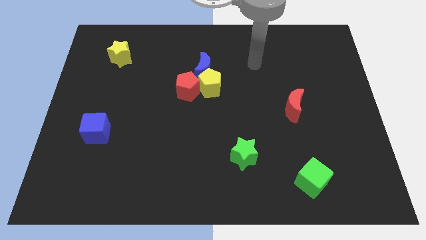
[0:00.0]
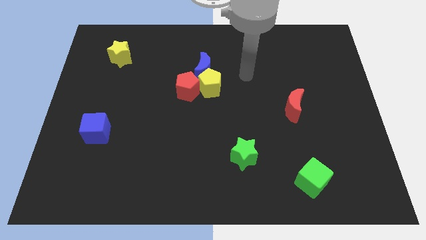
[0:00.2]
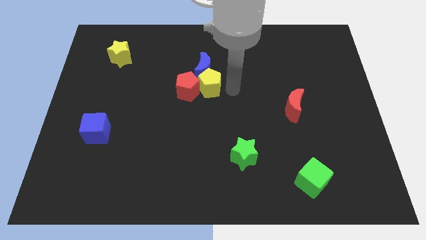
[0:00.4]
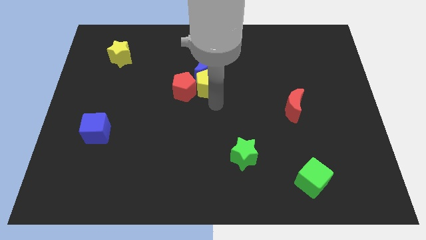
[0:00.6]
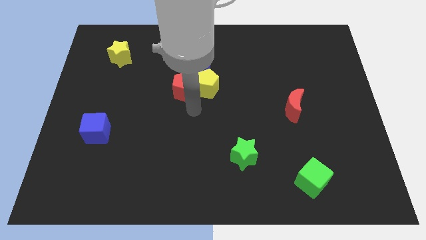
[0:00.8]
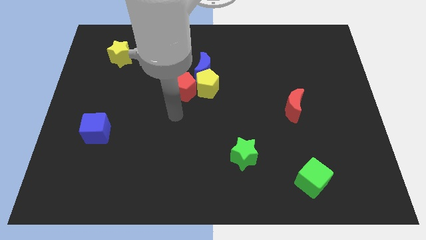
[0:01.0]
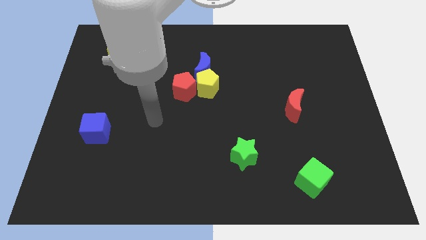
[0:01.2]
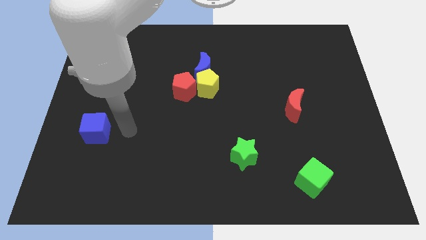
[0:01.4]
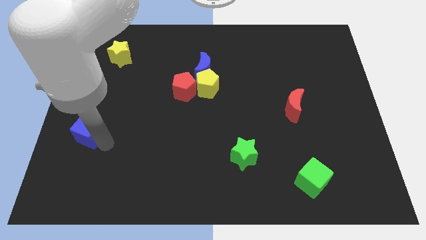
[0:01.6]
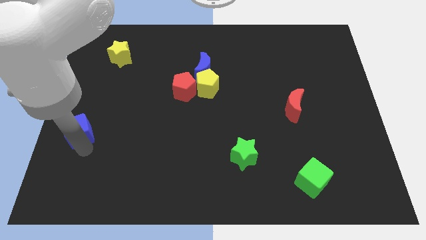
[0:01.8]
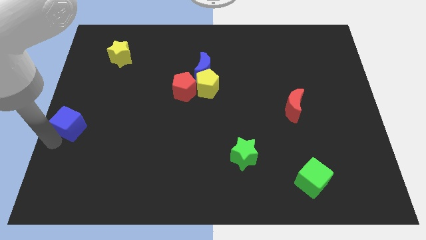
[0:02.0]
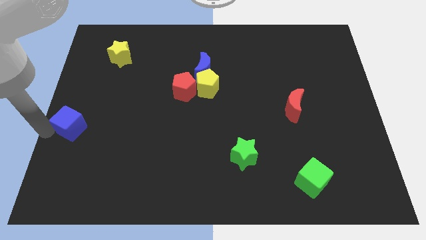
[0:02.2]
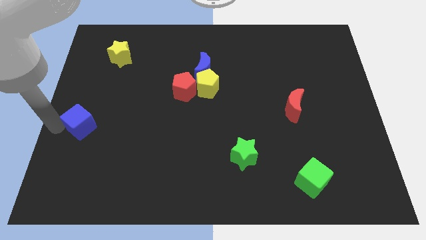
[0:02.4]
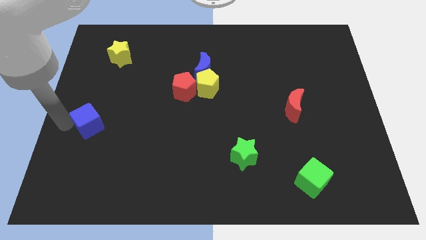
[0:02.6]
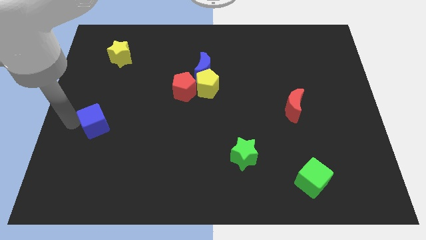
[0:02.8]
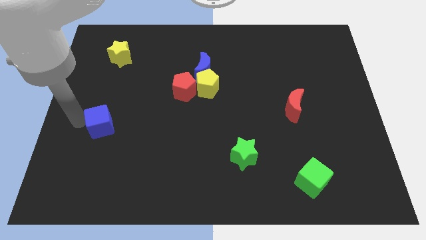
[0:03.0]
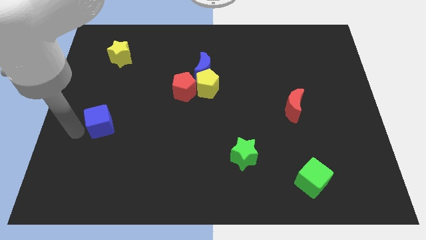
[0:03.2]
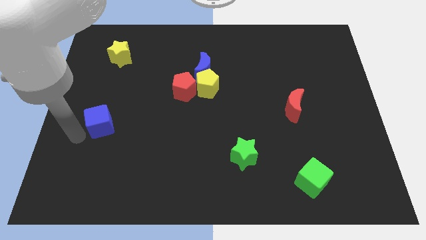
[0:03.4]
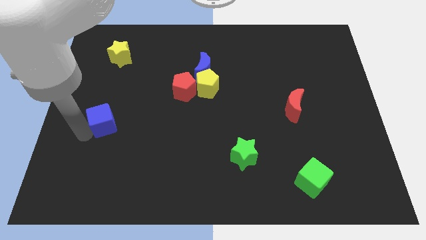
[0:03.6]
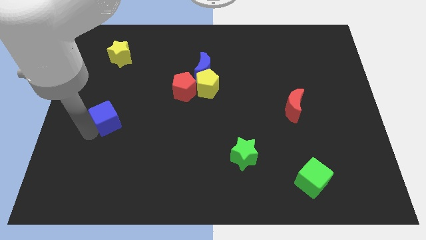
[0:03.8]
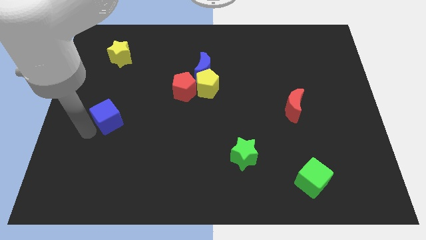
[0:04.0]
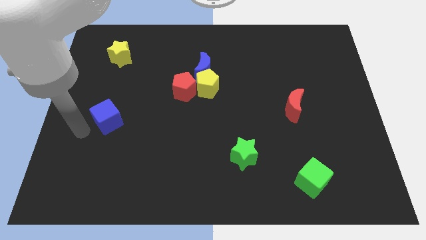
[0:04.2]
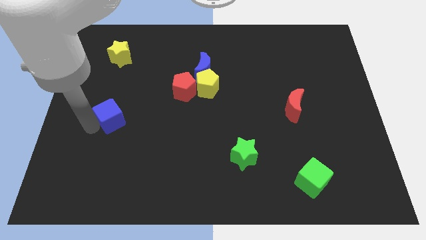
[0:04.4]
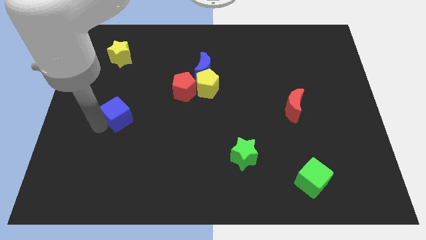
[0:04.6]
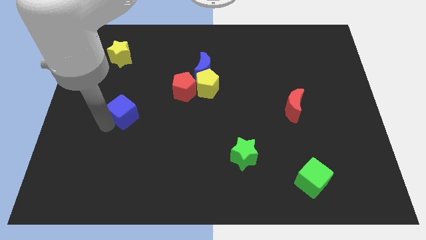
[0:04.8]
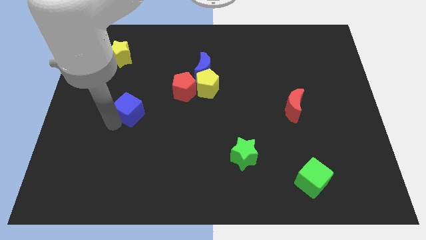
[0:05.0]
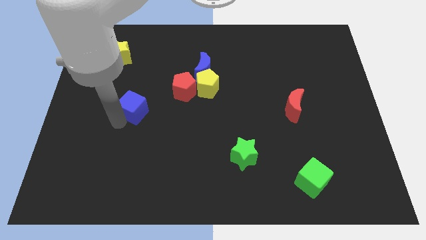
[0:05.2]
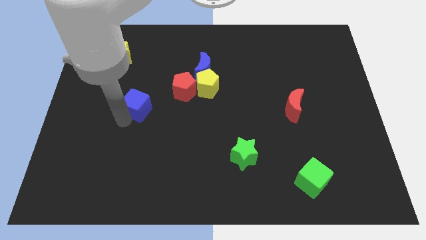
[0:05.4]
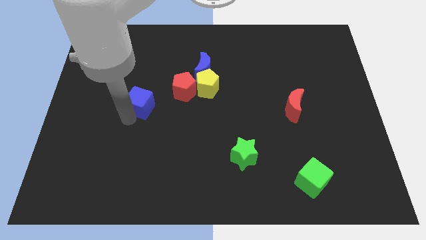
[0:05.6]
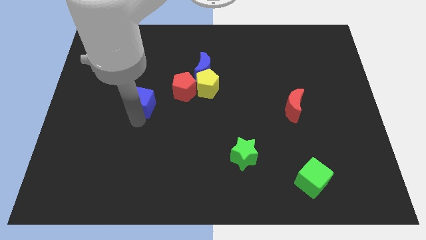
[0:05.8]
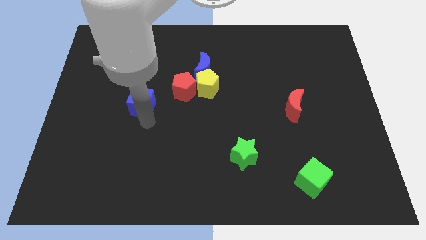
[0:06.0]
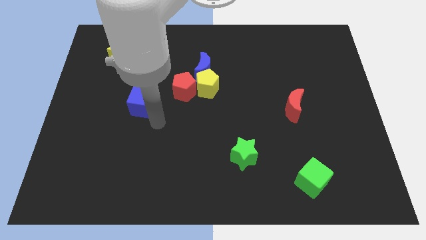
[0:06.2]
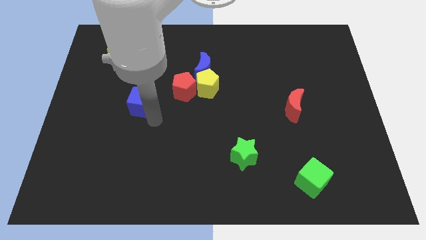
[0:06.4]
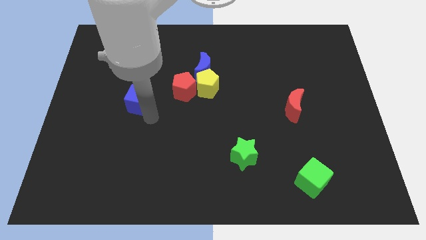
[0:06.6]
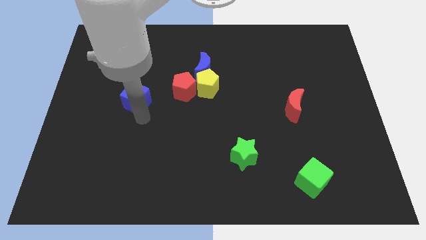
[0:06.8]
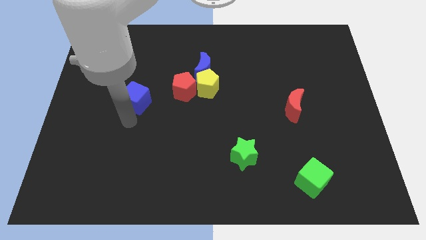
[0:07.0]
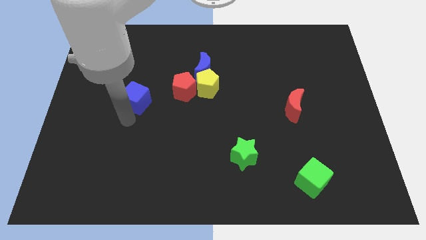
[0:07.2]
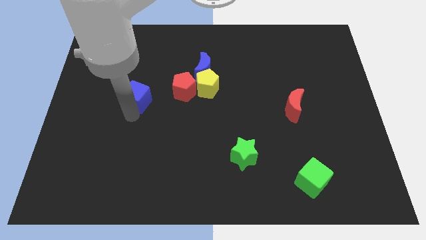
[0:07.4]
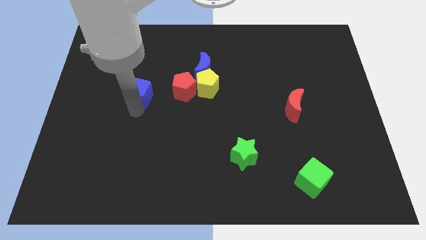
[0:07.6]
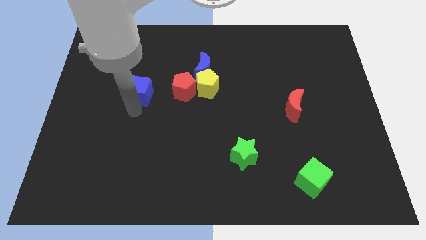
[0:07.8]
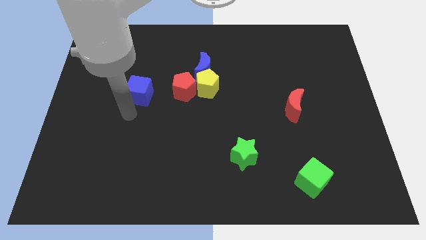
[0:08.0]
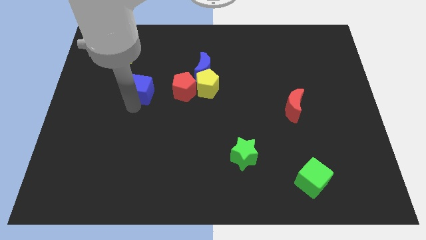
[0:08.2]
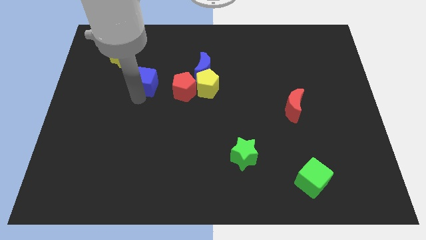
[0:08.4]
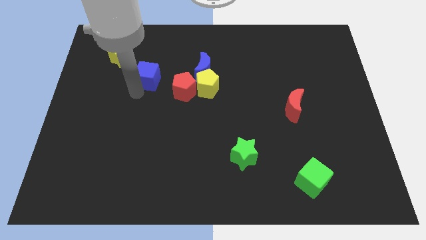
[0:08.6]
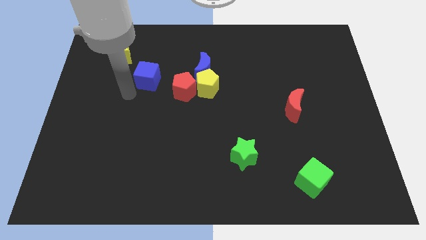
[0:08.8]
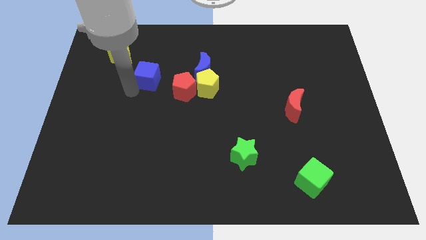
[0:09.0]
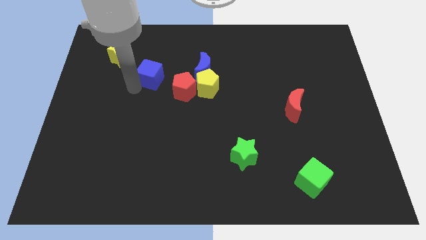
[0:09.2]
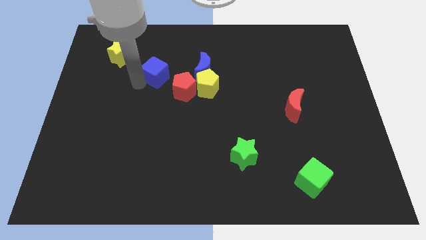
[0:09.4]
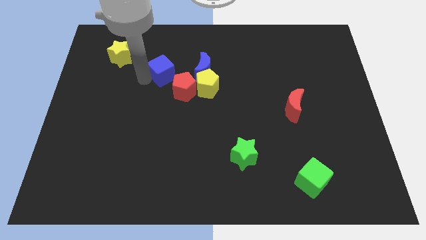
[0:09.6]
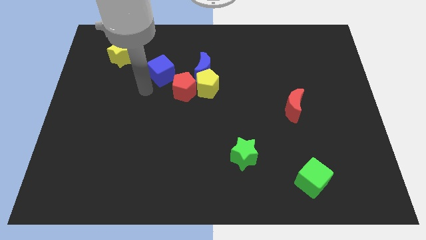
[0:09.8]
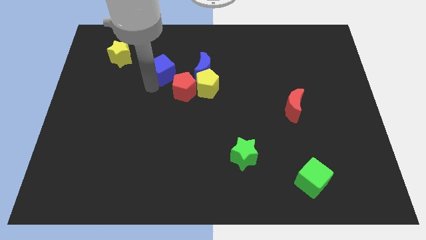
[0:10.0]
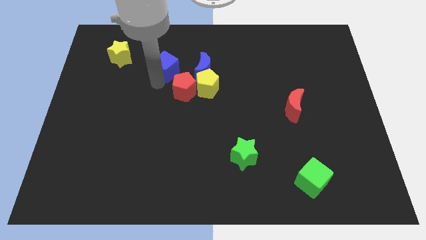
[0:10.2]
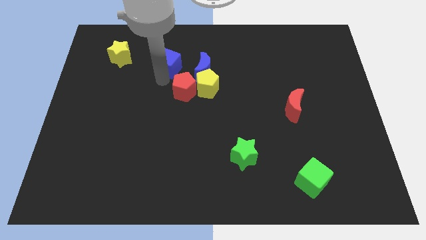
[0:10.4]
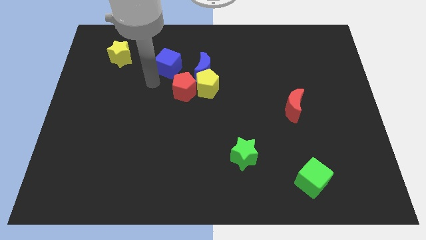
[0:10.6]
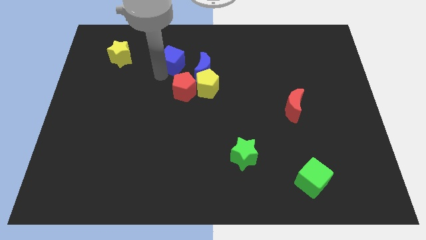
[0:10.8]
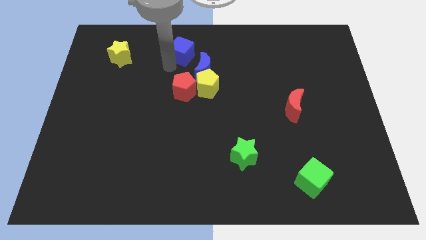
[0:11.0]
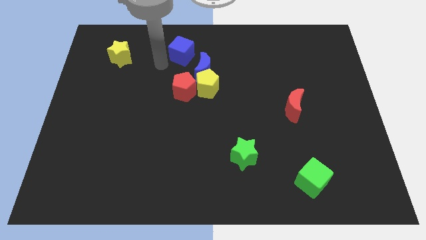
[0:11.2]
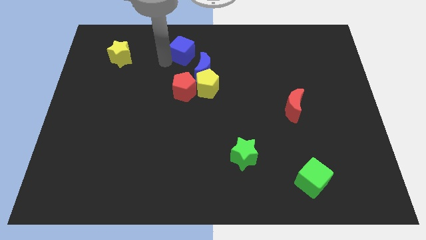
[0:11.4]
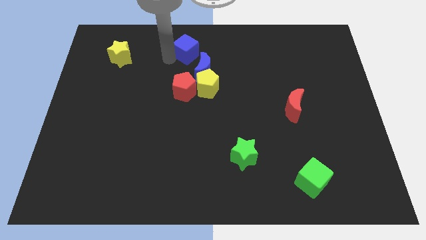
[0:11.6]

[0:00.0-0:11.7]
put the blue cube to the top side
